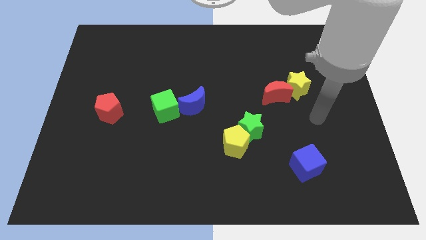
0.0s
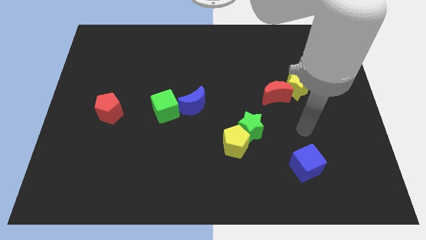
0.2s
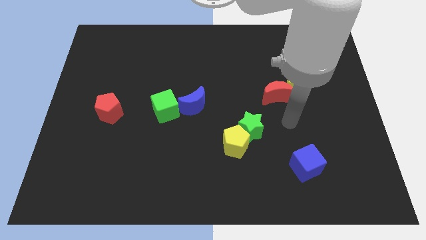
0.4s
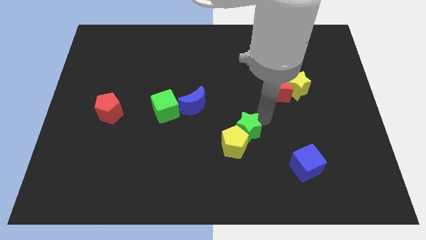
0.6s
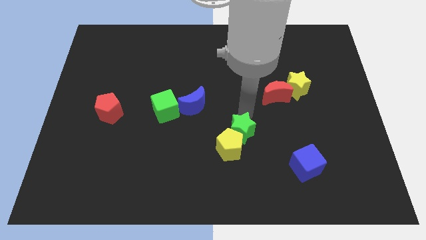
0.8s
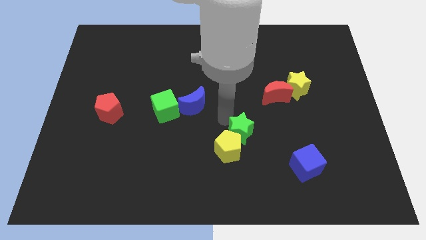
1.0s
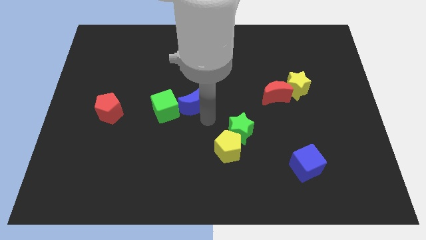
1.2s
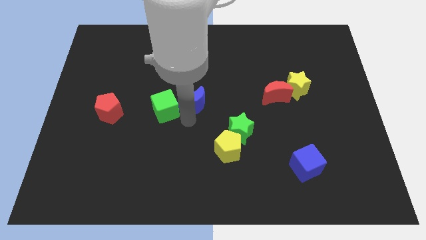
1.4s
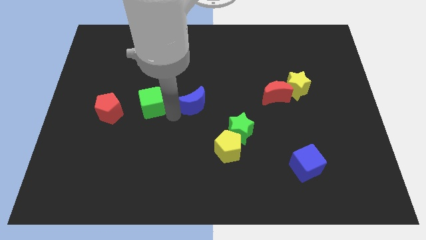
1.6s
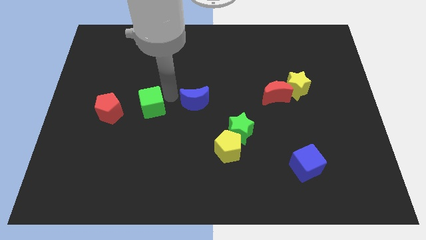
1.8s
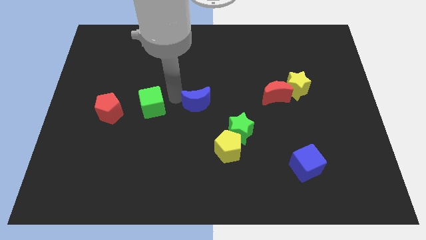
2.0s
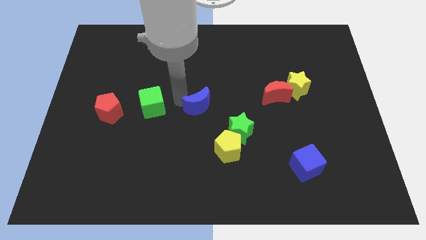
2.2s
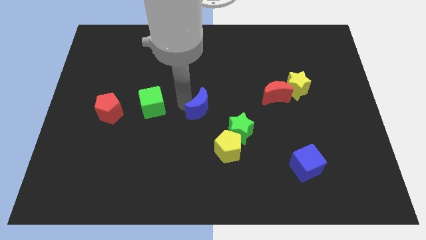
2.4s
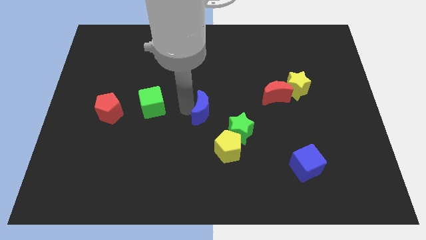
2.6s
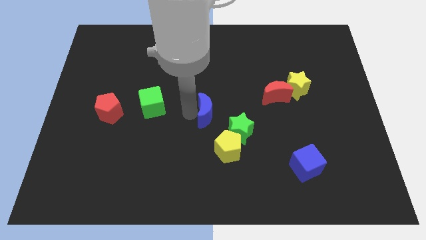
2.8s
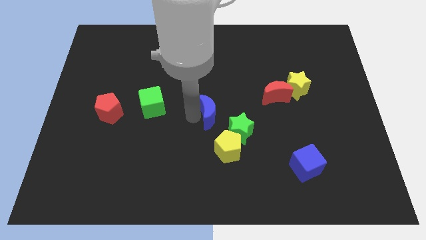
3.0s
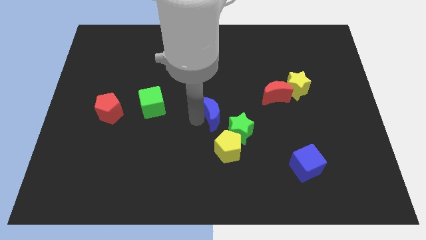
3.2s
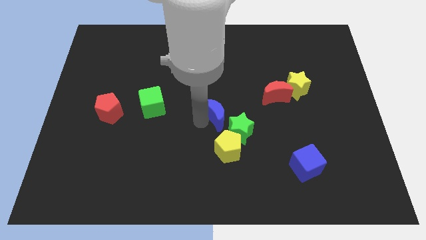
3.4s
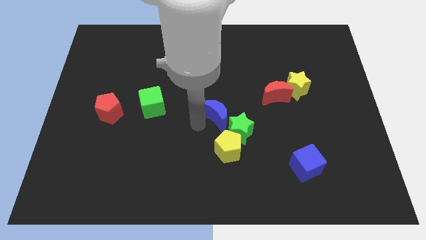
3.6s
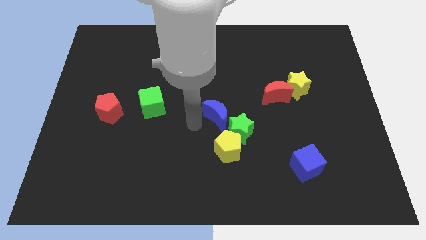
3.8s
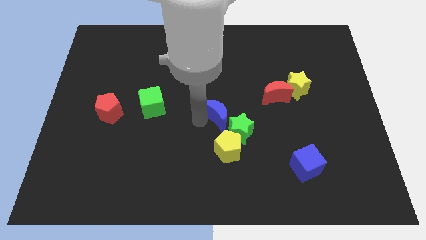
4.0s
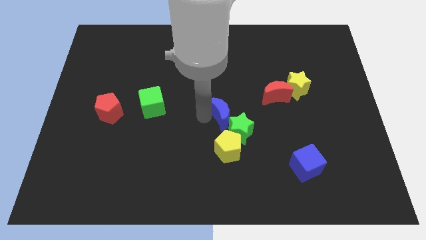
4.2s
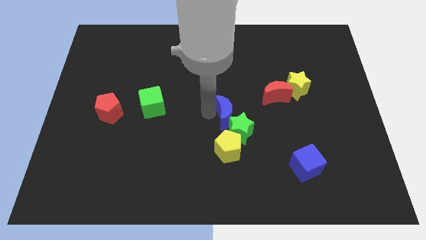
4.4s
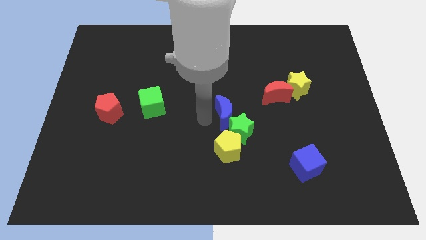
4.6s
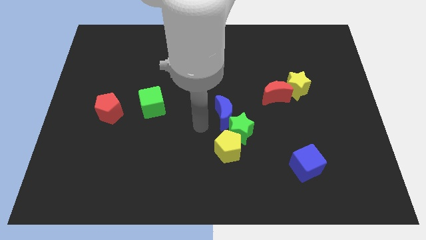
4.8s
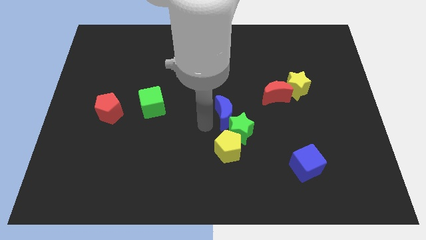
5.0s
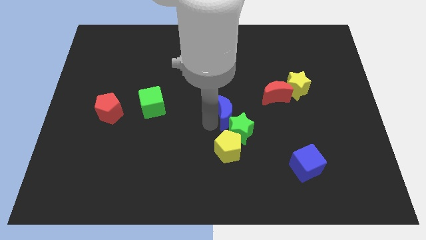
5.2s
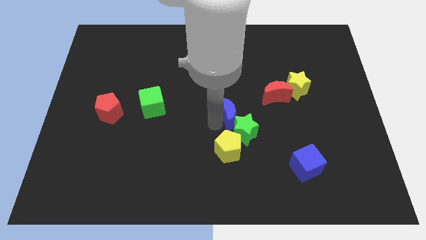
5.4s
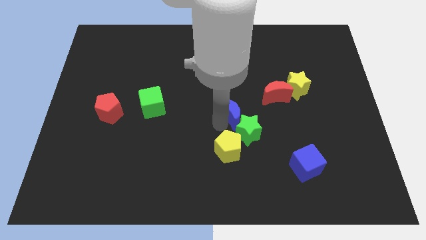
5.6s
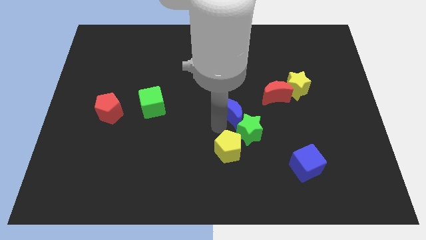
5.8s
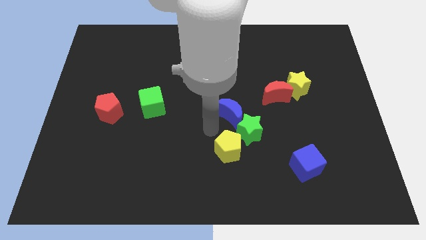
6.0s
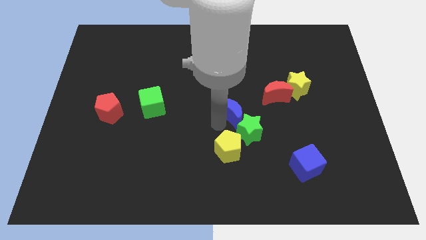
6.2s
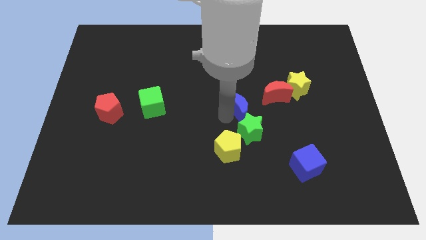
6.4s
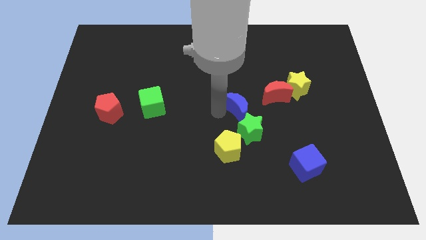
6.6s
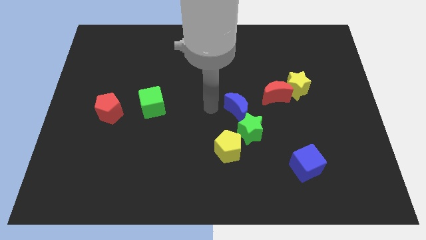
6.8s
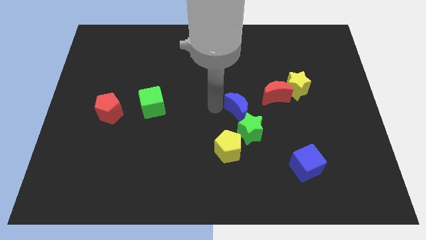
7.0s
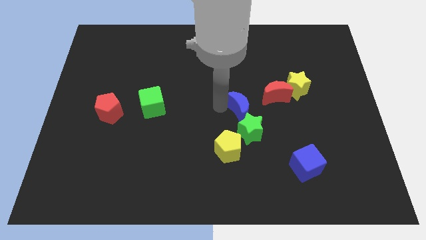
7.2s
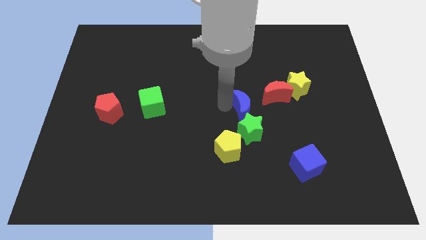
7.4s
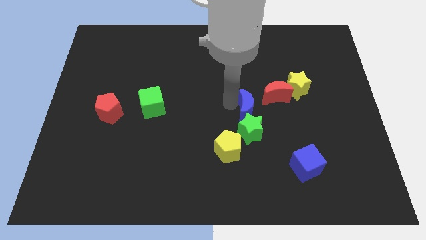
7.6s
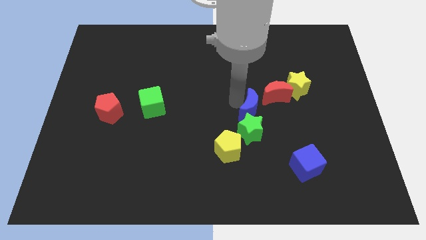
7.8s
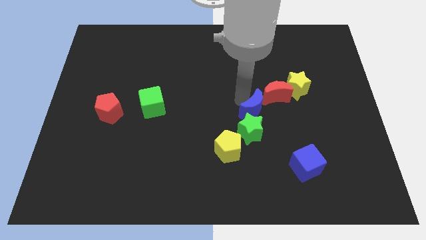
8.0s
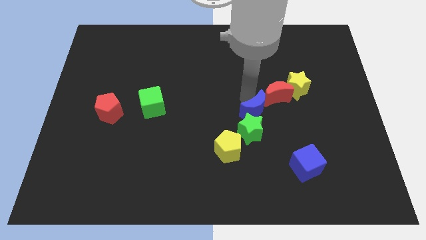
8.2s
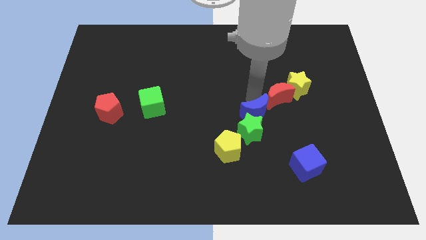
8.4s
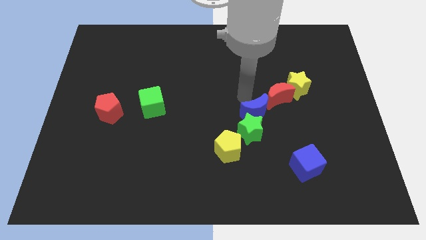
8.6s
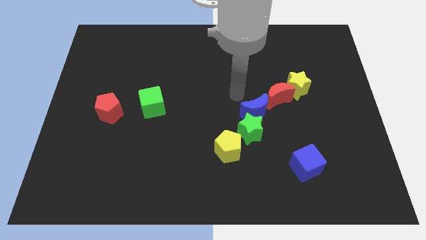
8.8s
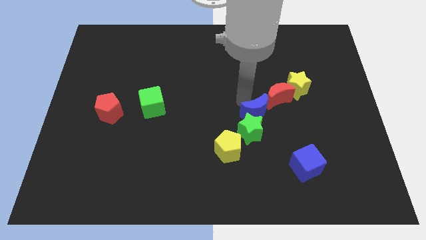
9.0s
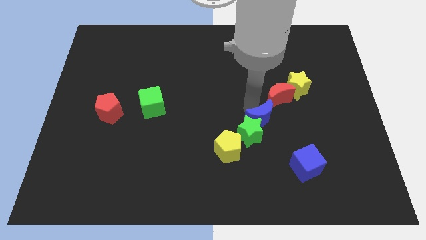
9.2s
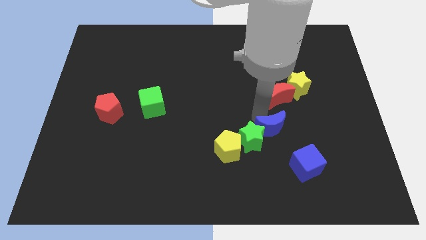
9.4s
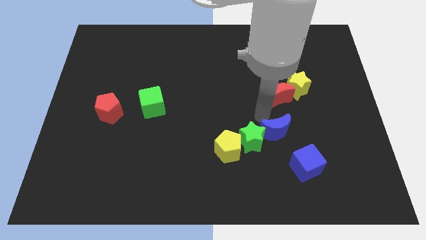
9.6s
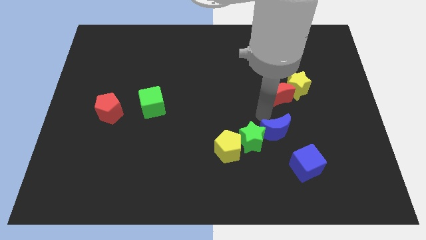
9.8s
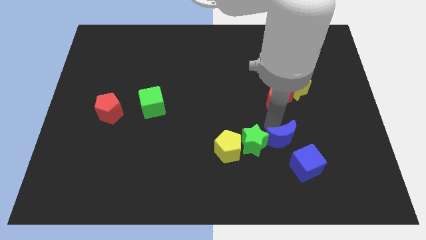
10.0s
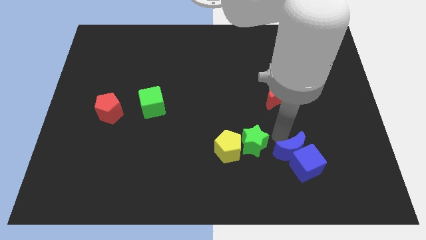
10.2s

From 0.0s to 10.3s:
slide the blue moon next to the blue cube

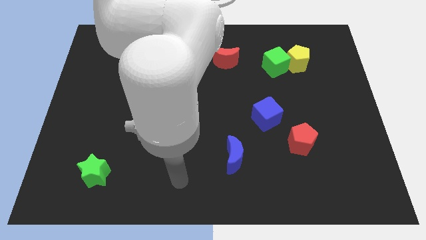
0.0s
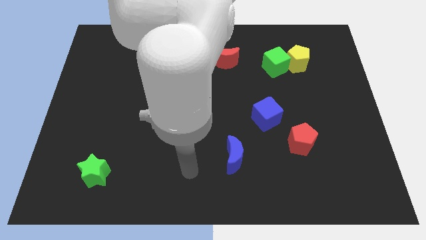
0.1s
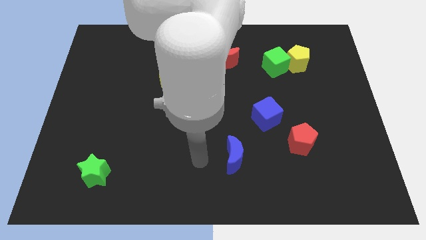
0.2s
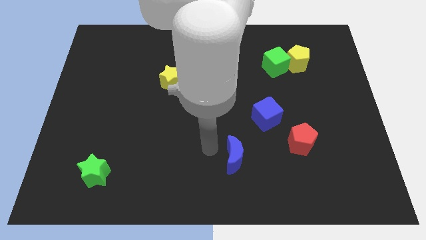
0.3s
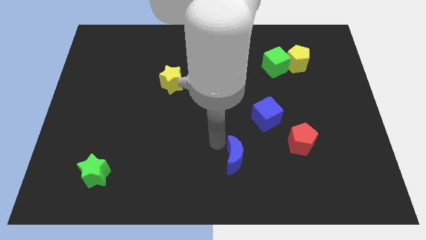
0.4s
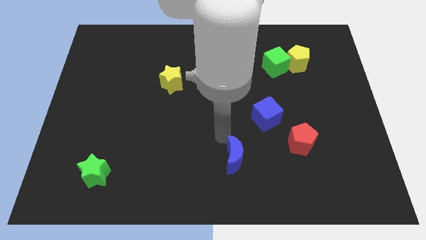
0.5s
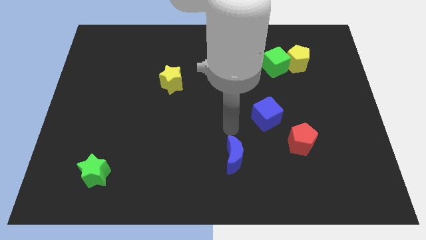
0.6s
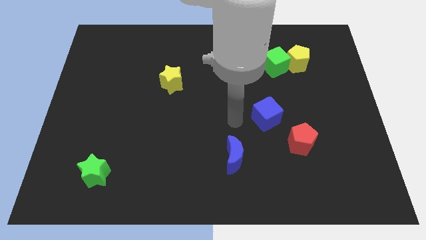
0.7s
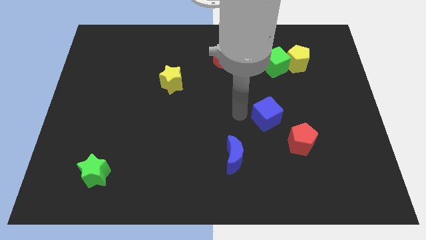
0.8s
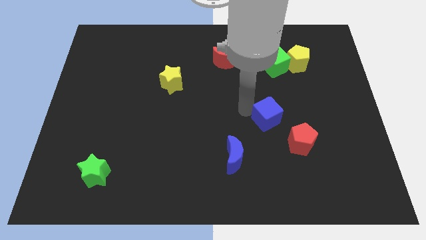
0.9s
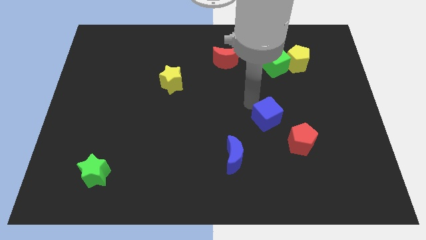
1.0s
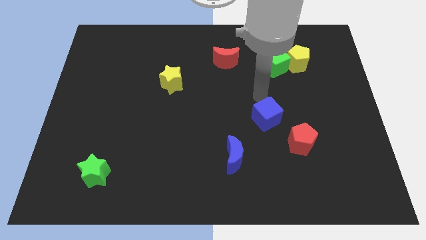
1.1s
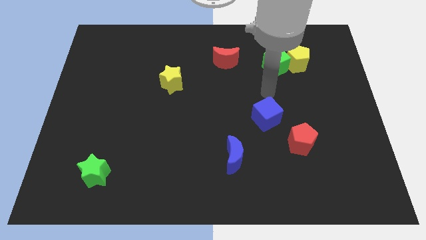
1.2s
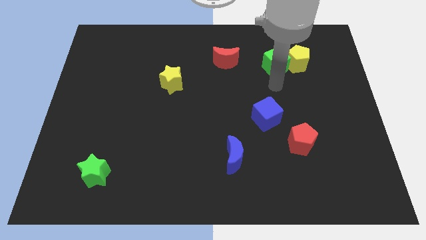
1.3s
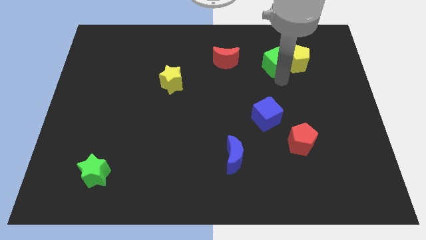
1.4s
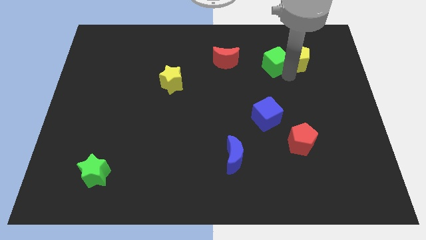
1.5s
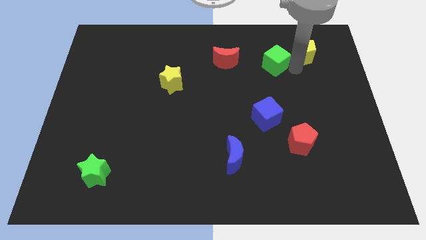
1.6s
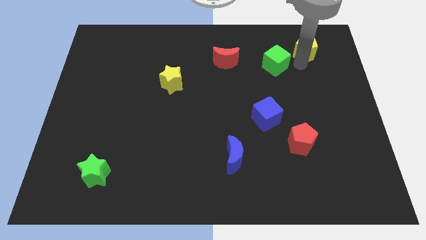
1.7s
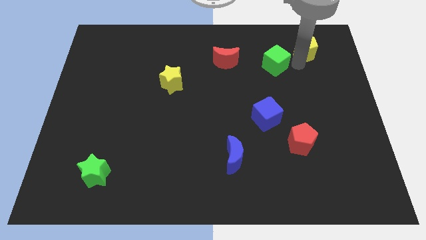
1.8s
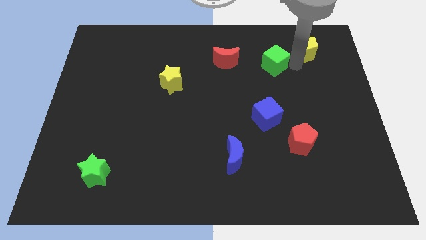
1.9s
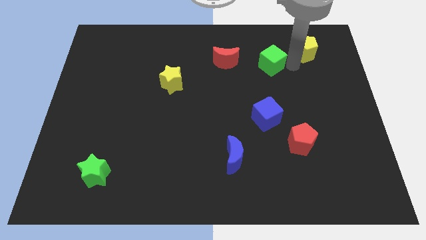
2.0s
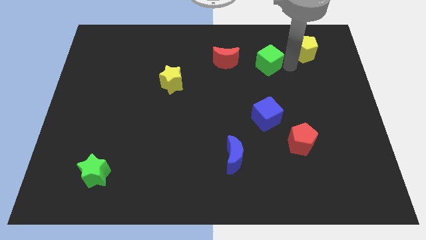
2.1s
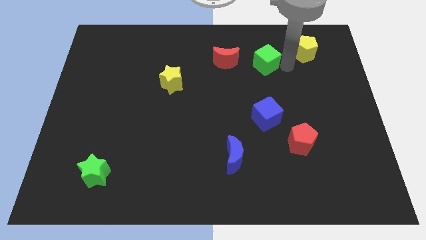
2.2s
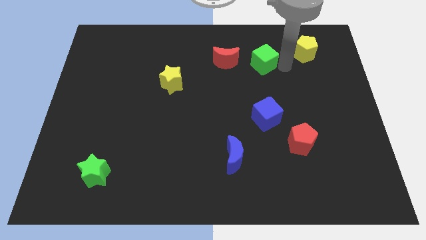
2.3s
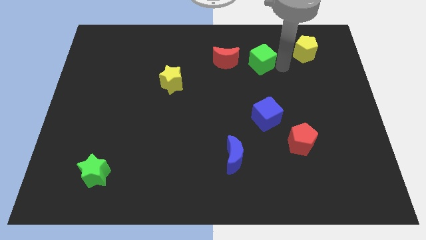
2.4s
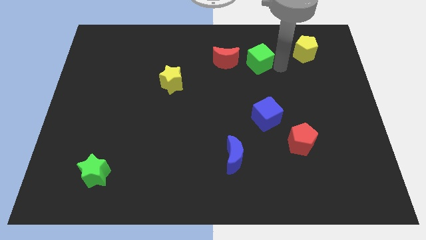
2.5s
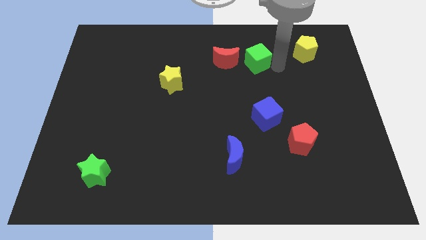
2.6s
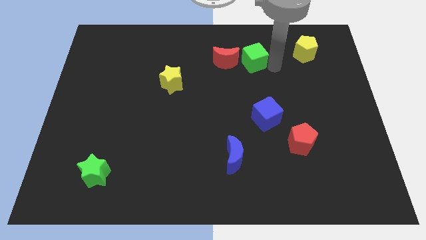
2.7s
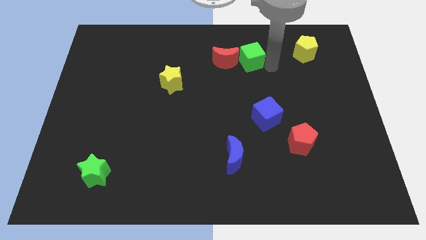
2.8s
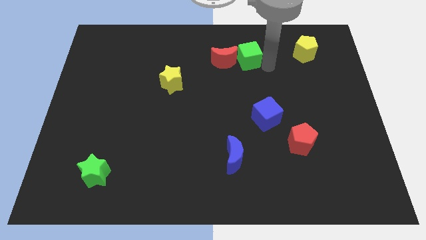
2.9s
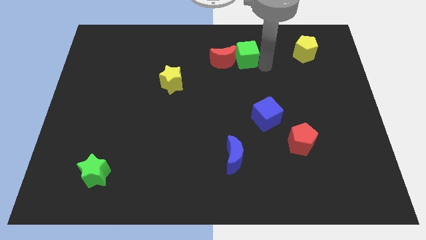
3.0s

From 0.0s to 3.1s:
move the green cube next to the red moon
